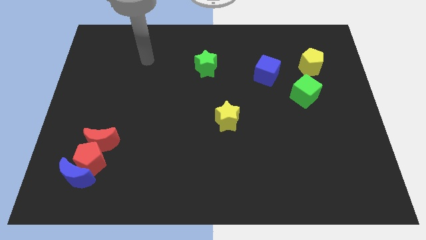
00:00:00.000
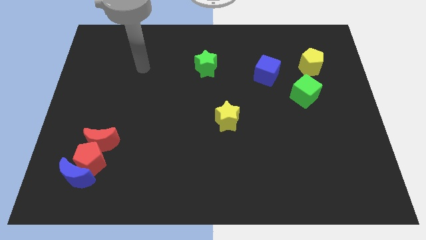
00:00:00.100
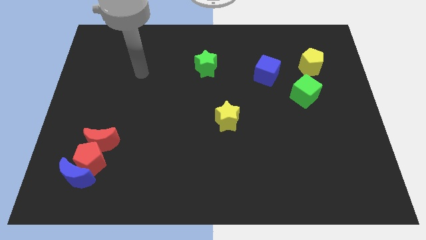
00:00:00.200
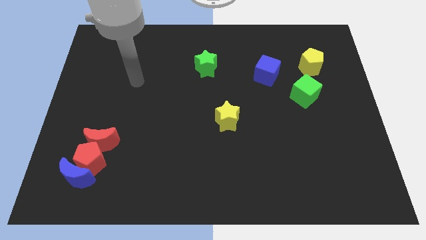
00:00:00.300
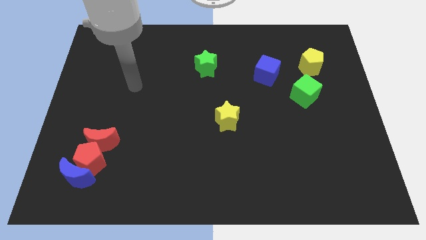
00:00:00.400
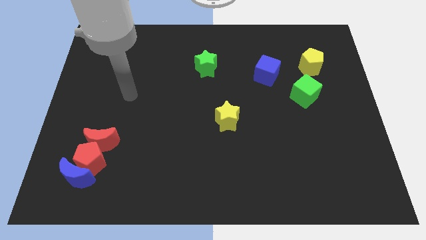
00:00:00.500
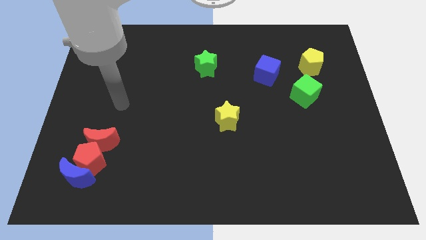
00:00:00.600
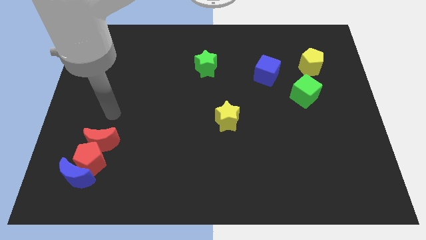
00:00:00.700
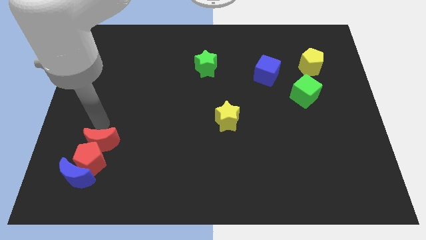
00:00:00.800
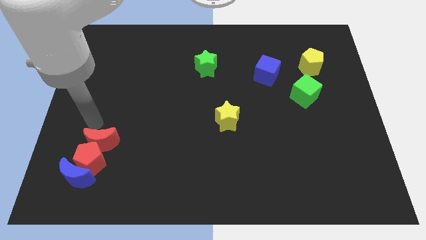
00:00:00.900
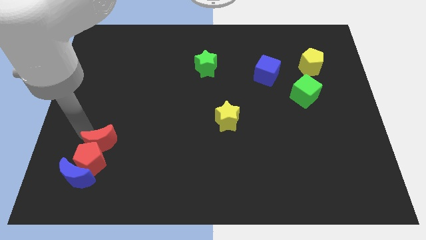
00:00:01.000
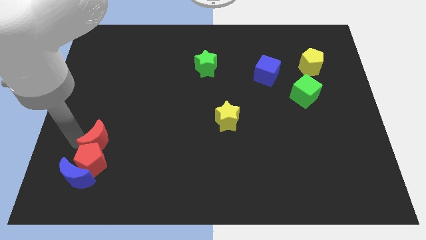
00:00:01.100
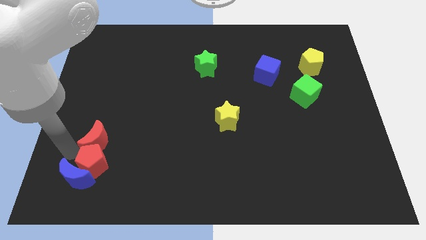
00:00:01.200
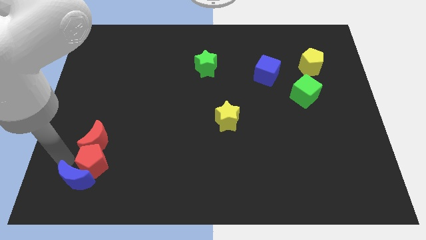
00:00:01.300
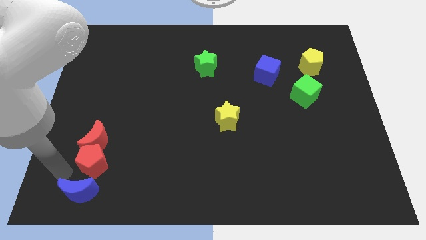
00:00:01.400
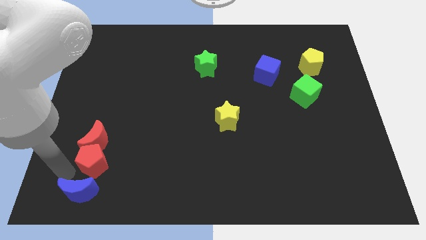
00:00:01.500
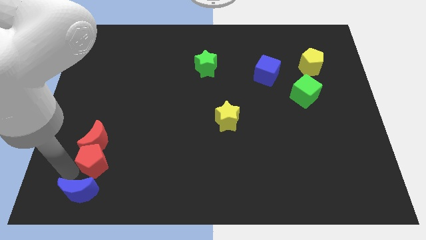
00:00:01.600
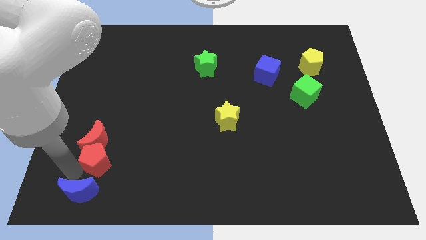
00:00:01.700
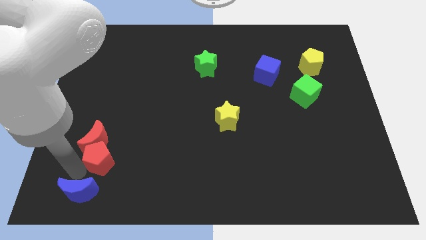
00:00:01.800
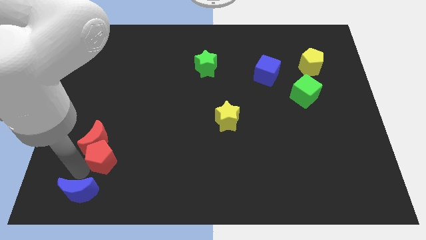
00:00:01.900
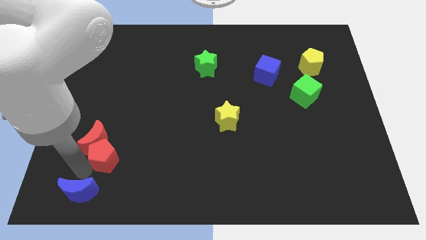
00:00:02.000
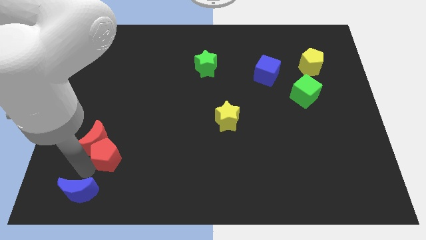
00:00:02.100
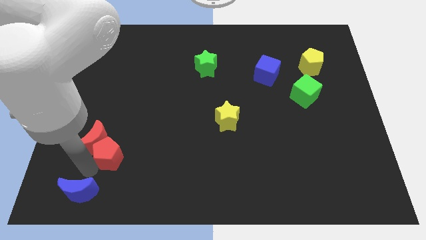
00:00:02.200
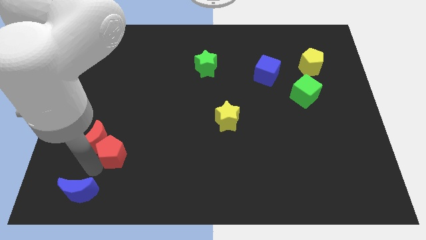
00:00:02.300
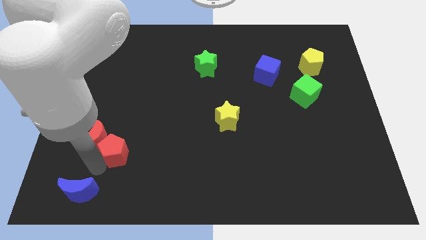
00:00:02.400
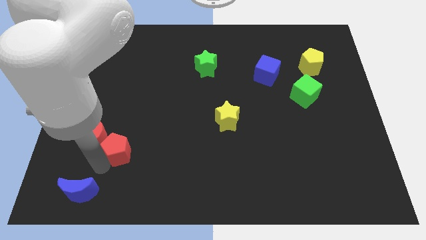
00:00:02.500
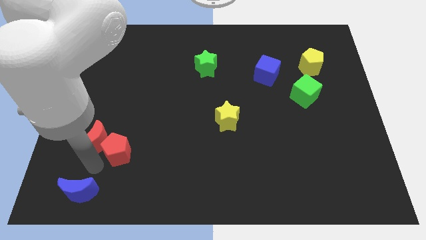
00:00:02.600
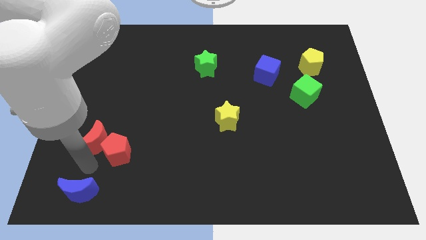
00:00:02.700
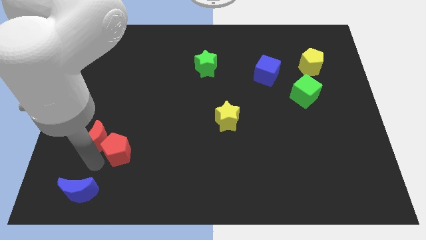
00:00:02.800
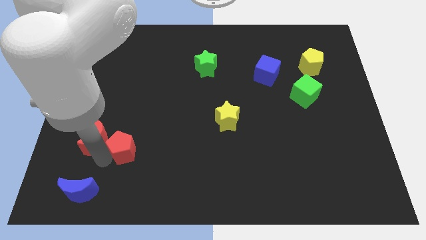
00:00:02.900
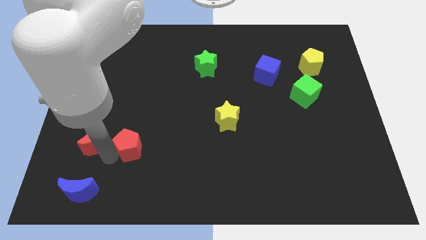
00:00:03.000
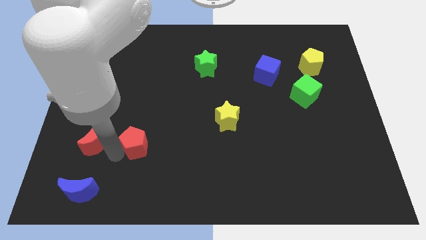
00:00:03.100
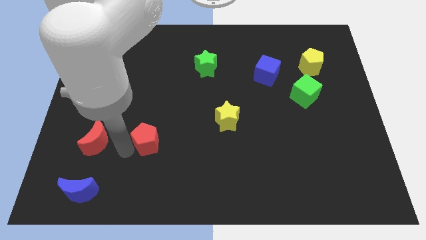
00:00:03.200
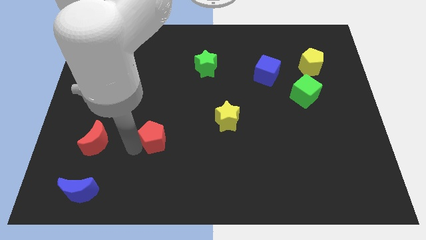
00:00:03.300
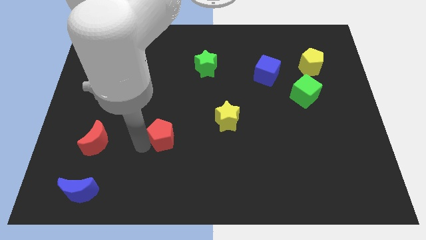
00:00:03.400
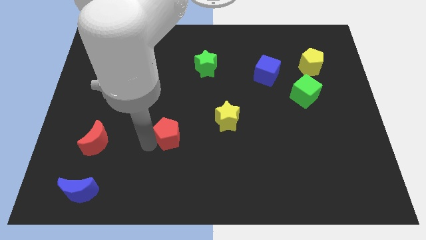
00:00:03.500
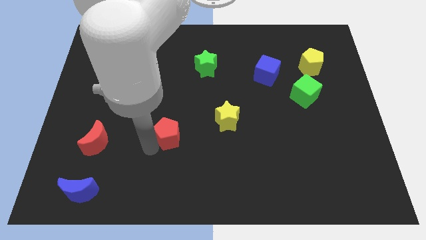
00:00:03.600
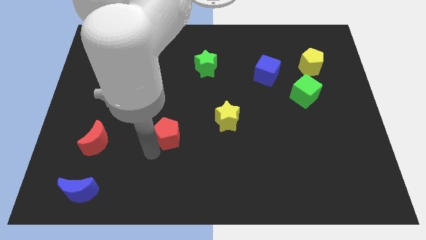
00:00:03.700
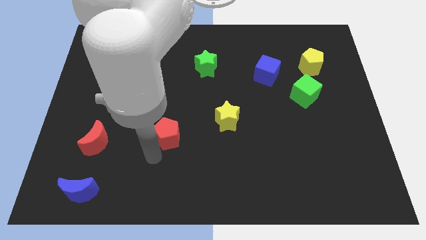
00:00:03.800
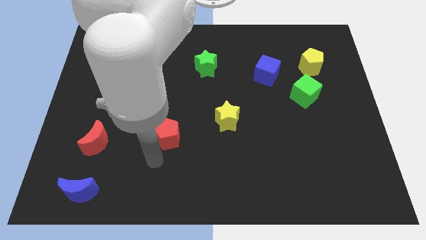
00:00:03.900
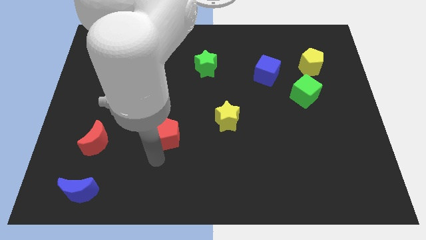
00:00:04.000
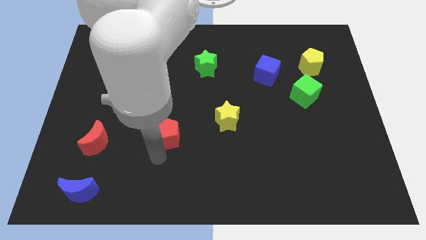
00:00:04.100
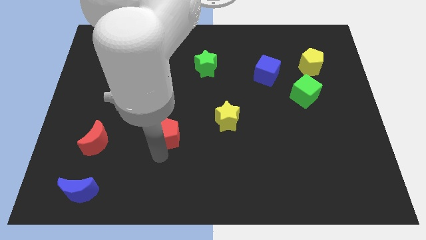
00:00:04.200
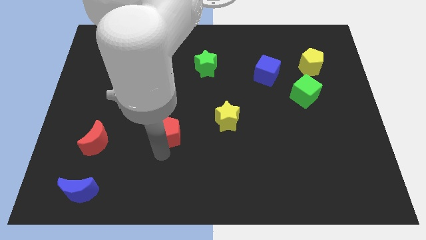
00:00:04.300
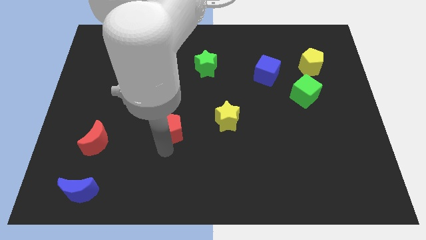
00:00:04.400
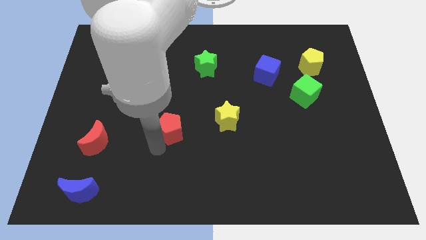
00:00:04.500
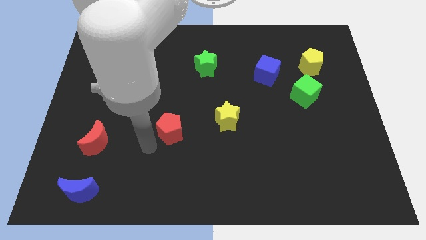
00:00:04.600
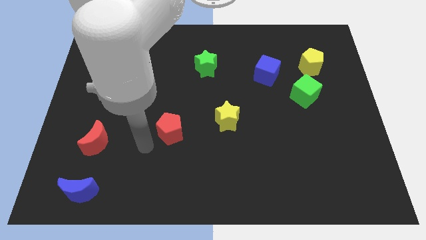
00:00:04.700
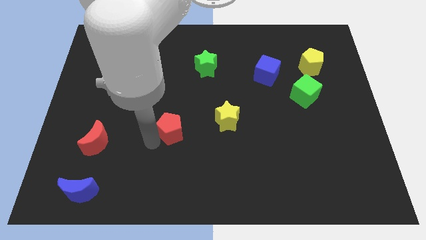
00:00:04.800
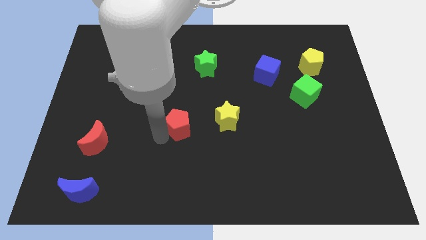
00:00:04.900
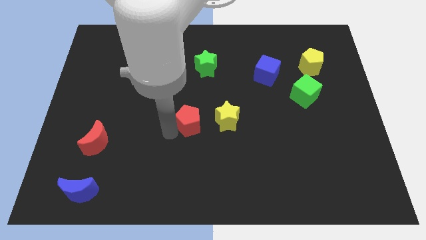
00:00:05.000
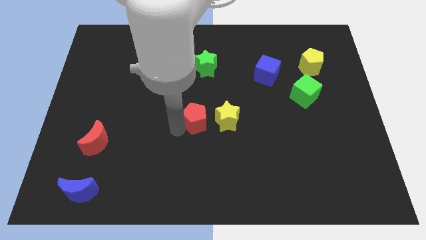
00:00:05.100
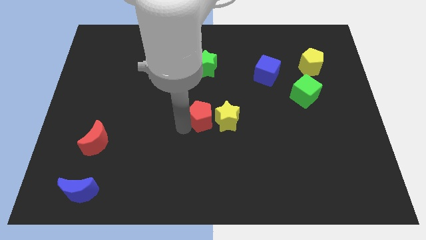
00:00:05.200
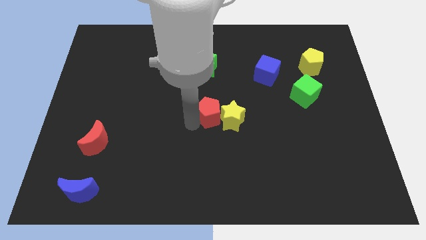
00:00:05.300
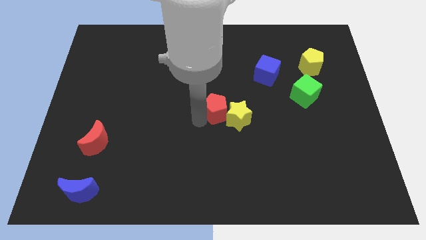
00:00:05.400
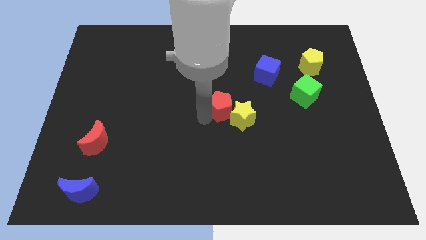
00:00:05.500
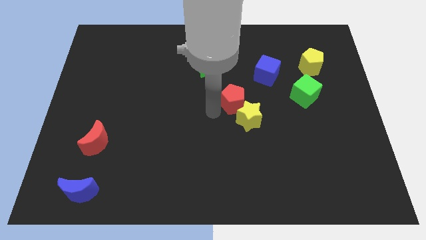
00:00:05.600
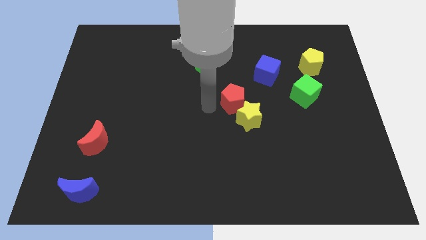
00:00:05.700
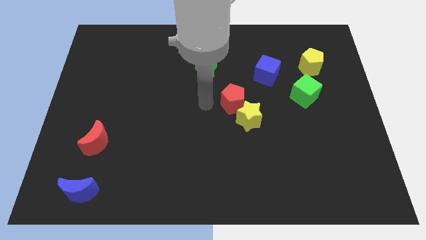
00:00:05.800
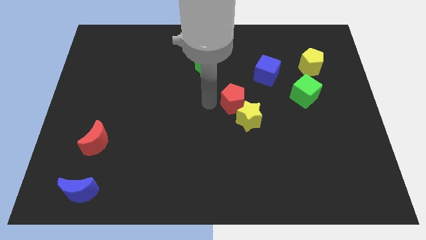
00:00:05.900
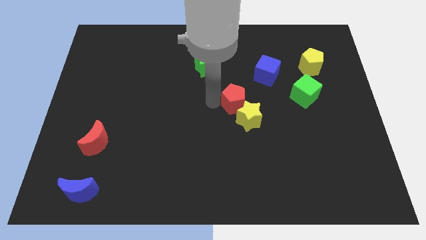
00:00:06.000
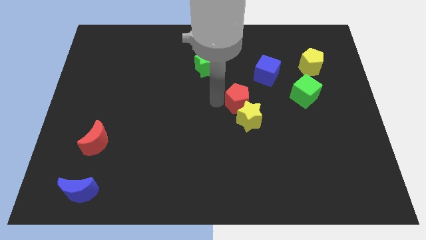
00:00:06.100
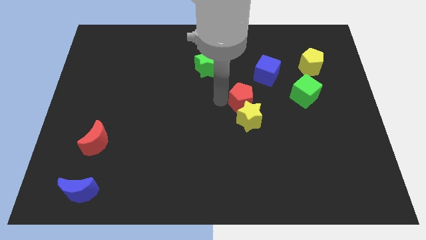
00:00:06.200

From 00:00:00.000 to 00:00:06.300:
move the red pentagon to the top right of the yellow star

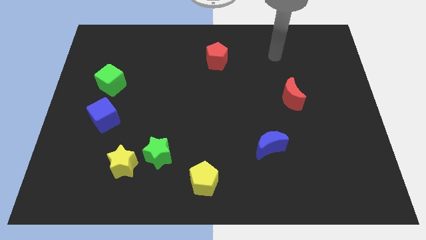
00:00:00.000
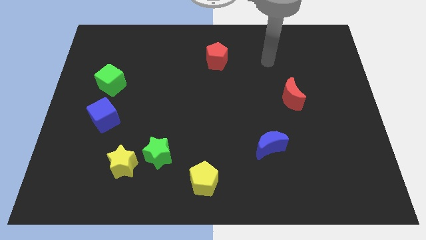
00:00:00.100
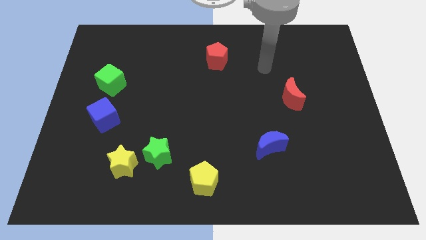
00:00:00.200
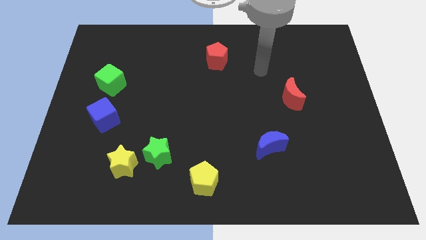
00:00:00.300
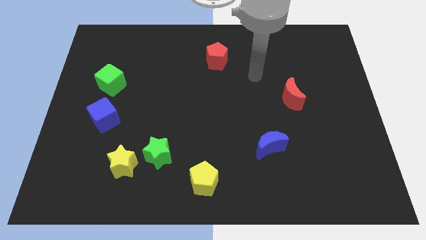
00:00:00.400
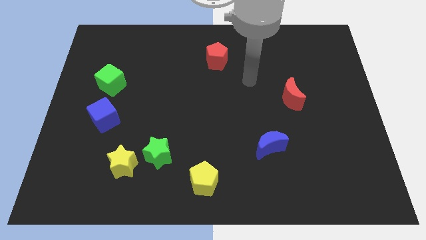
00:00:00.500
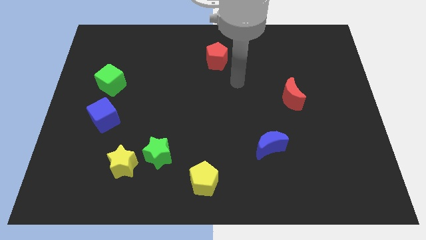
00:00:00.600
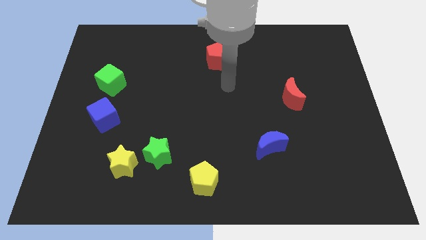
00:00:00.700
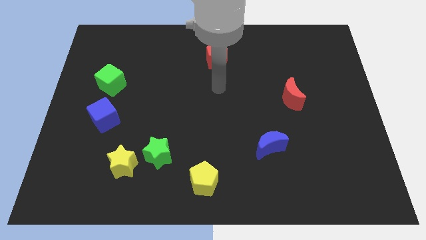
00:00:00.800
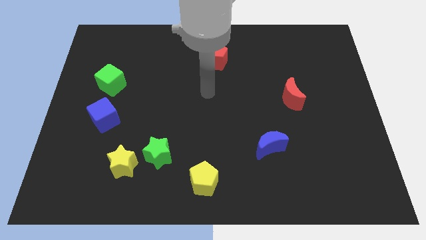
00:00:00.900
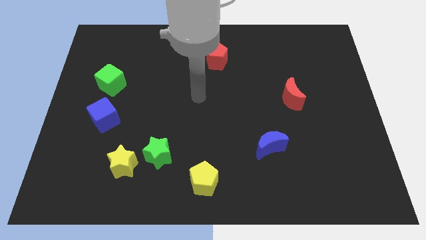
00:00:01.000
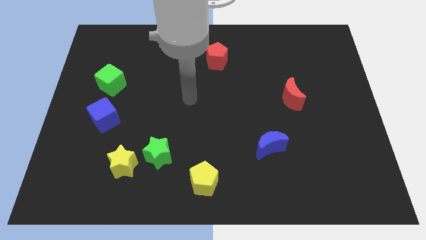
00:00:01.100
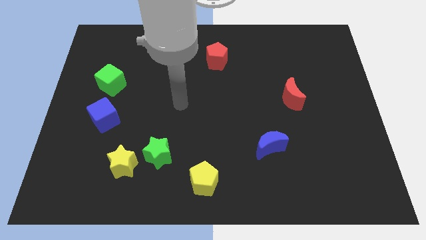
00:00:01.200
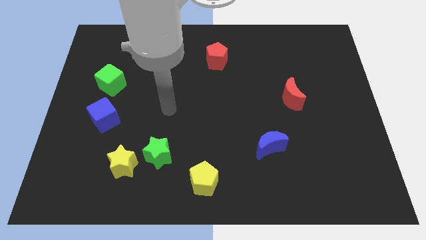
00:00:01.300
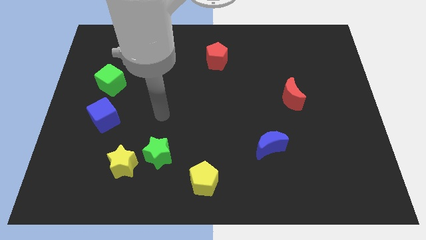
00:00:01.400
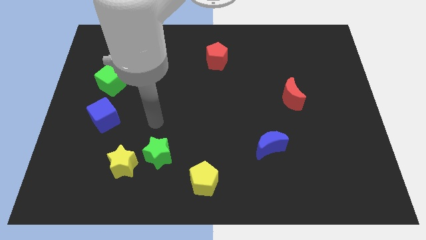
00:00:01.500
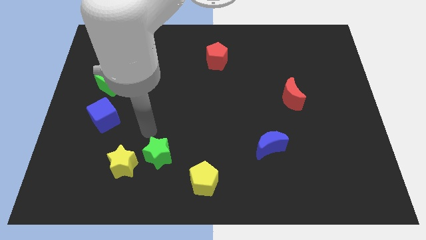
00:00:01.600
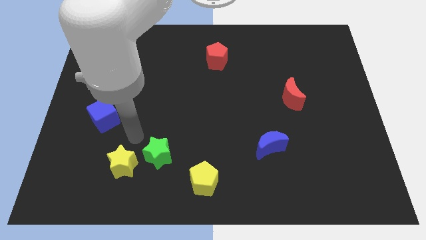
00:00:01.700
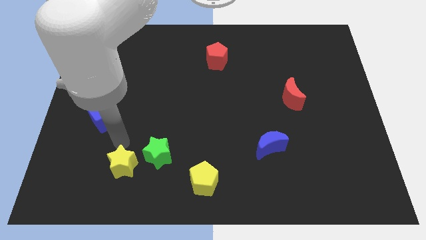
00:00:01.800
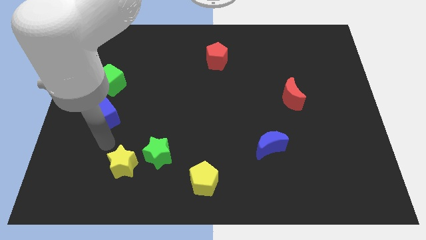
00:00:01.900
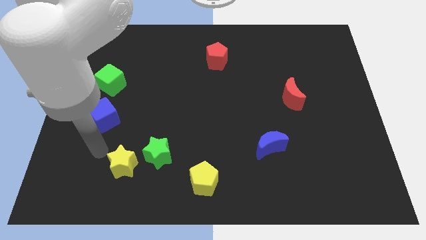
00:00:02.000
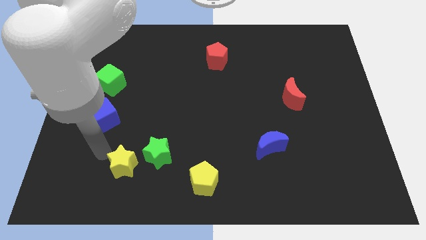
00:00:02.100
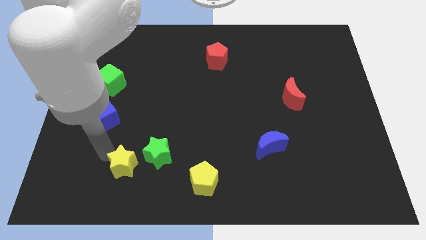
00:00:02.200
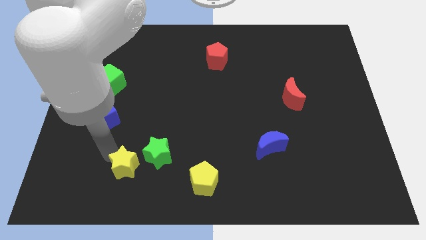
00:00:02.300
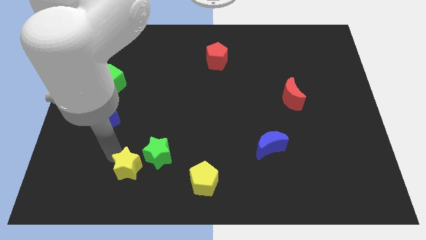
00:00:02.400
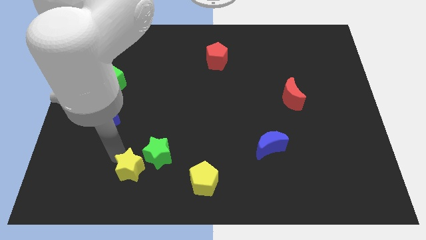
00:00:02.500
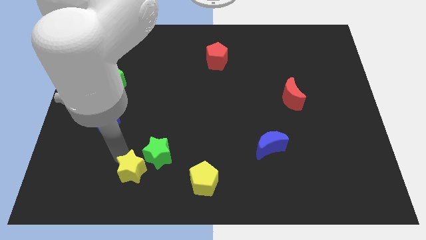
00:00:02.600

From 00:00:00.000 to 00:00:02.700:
move the yellow star just left of the yellow pentagon
